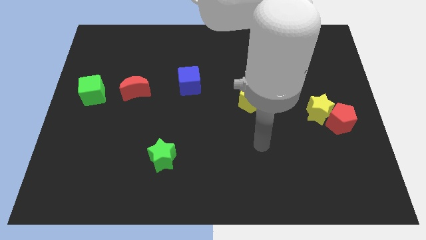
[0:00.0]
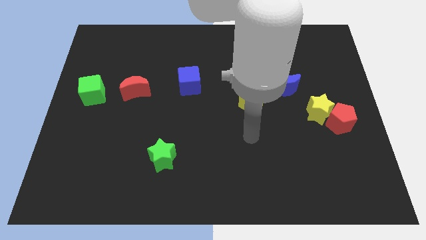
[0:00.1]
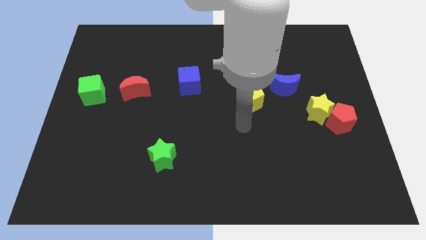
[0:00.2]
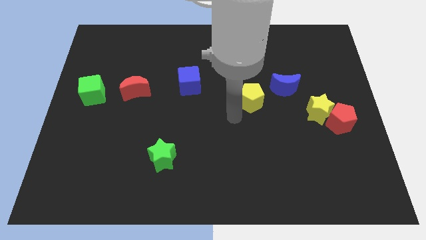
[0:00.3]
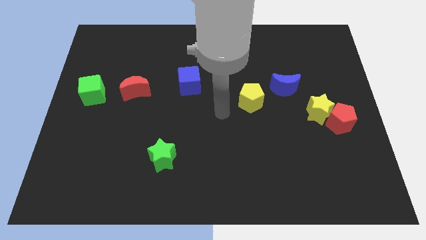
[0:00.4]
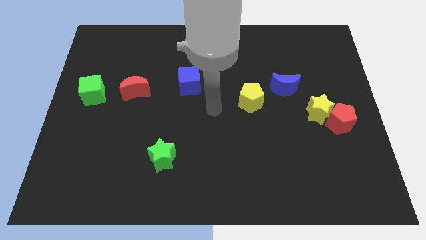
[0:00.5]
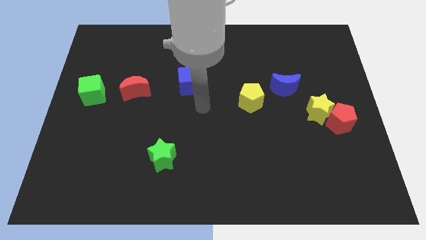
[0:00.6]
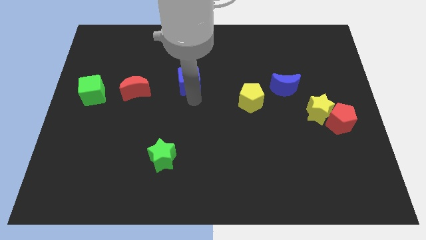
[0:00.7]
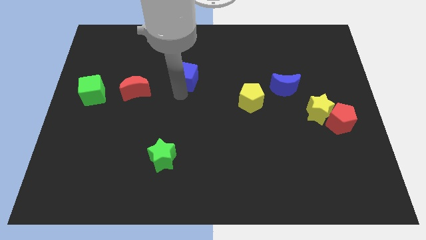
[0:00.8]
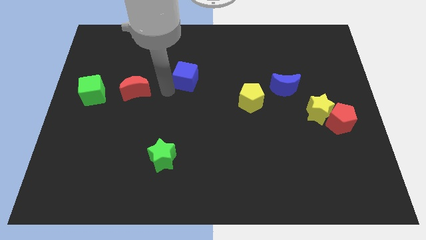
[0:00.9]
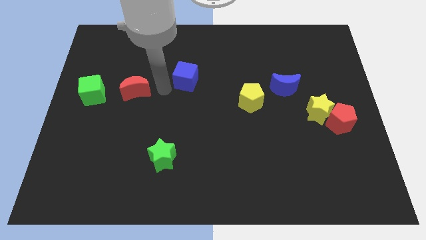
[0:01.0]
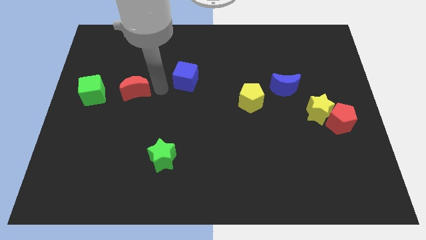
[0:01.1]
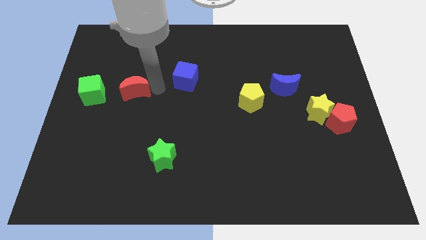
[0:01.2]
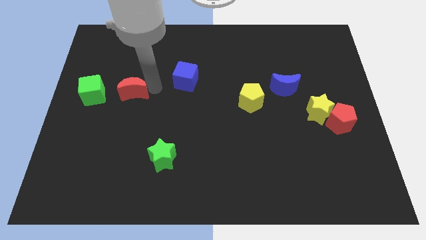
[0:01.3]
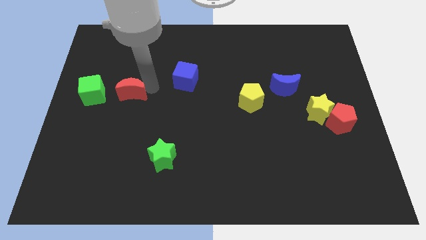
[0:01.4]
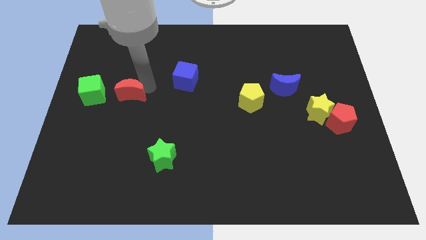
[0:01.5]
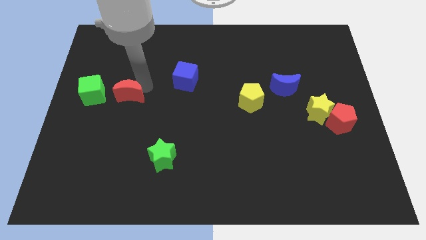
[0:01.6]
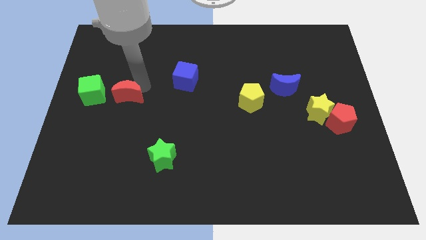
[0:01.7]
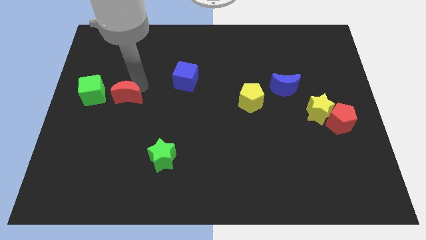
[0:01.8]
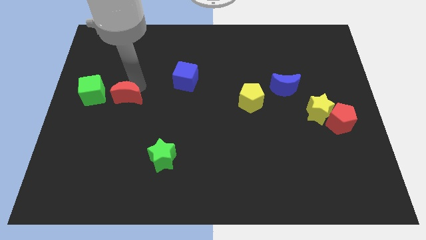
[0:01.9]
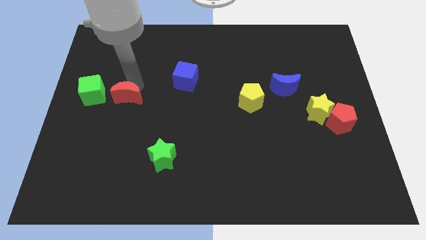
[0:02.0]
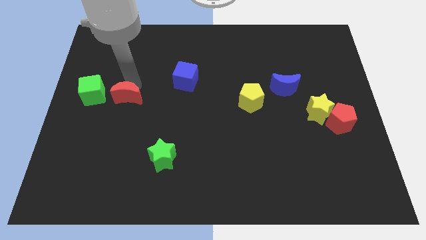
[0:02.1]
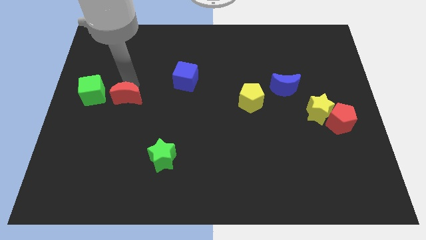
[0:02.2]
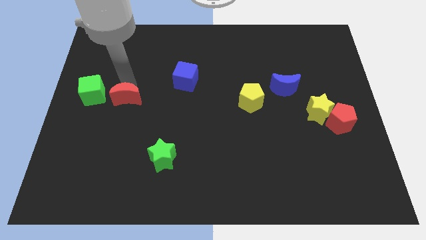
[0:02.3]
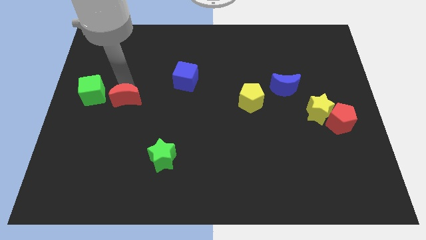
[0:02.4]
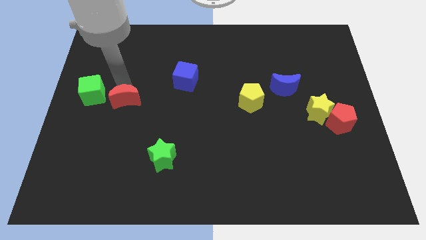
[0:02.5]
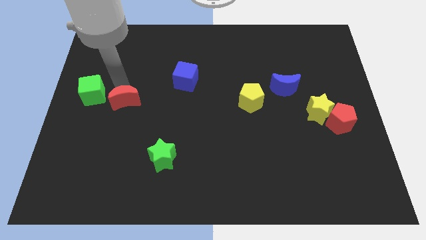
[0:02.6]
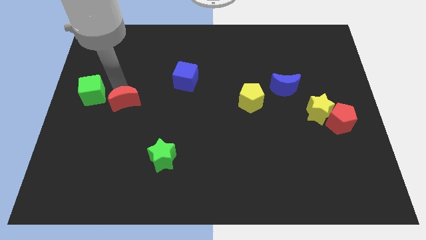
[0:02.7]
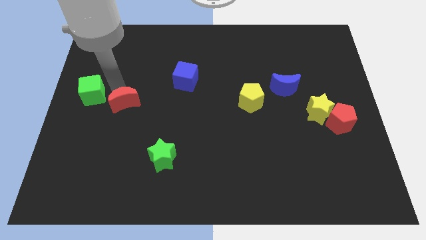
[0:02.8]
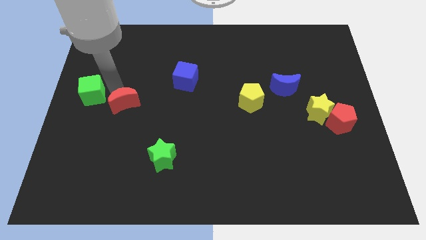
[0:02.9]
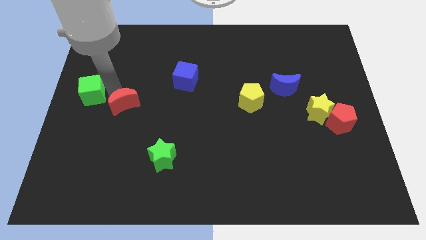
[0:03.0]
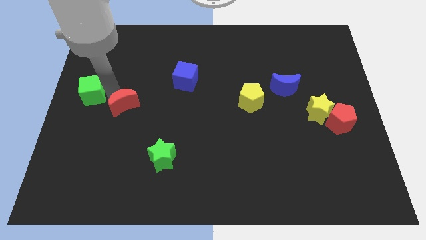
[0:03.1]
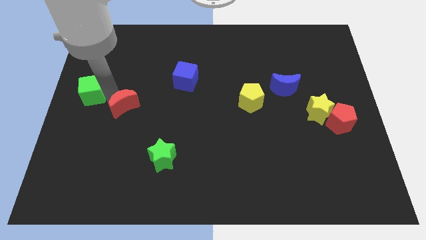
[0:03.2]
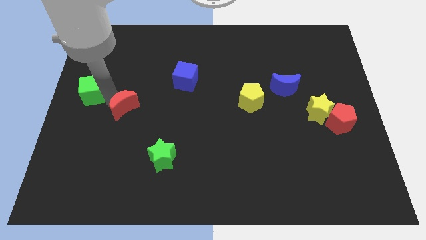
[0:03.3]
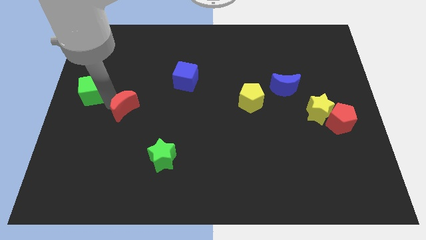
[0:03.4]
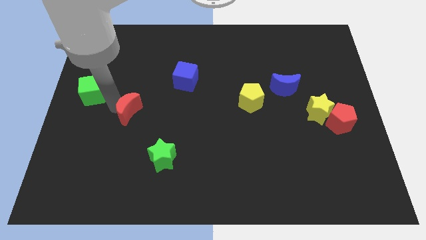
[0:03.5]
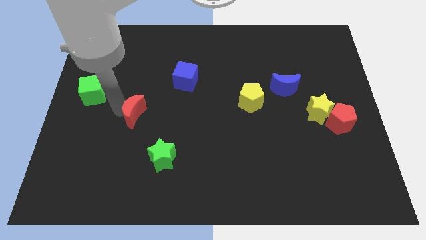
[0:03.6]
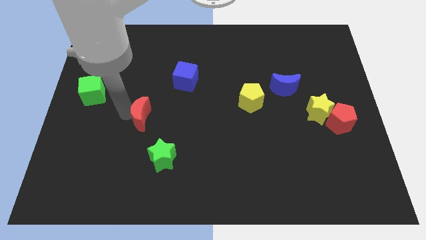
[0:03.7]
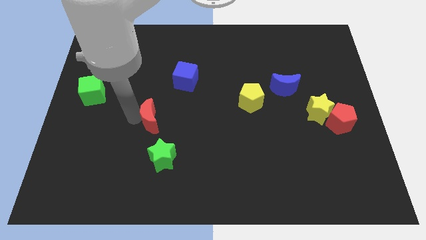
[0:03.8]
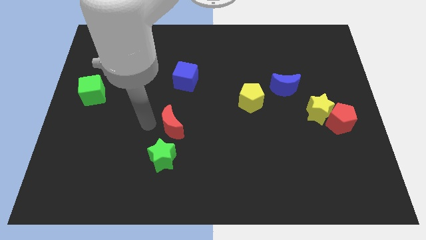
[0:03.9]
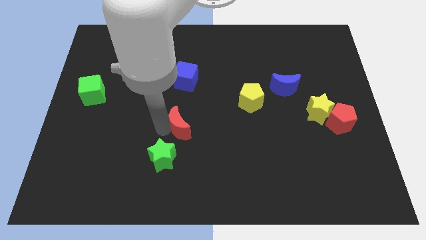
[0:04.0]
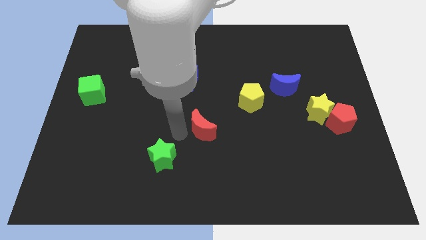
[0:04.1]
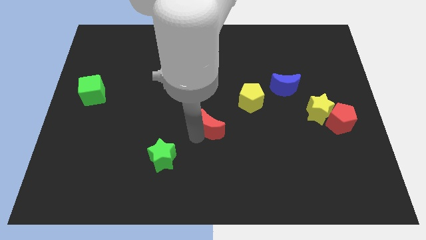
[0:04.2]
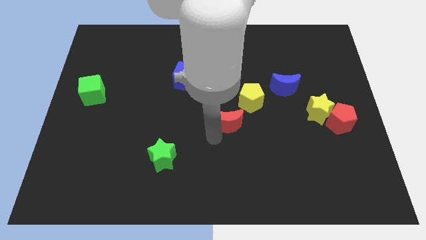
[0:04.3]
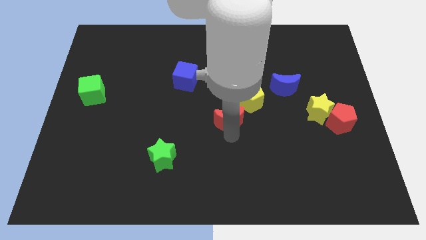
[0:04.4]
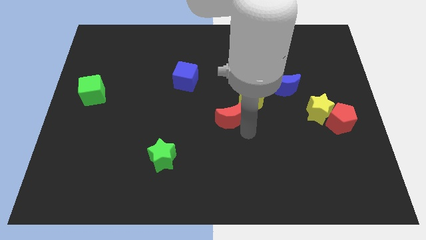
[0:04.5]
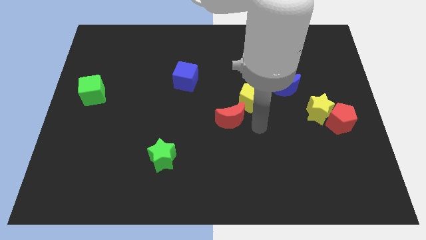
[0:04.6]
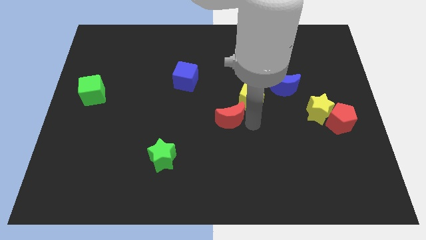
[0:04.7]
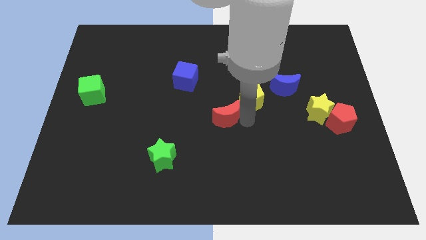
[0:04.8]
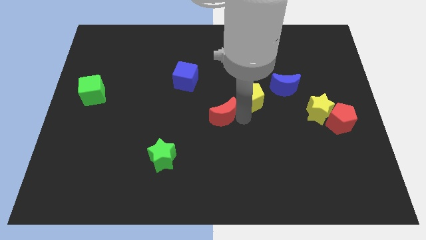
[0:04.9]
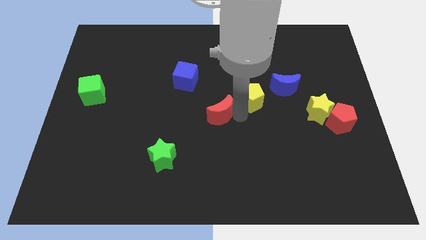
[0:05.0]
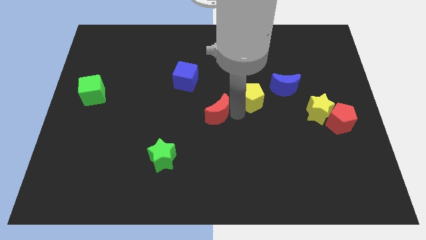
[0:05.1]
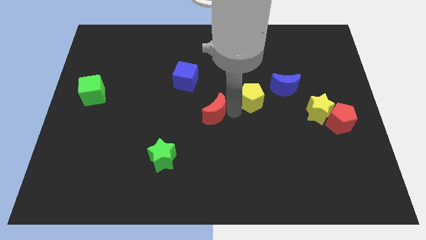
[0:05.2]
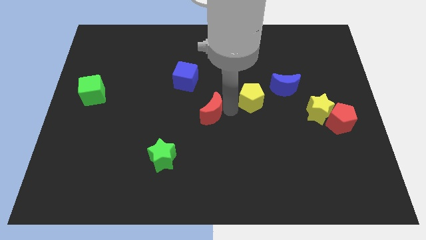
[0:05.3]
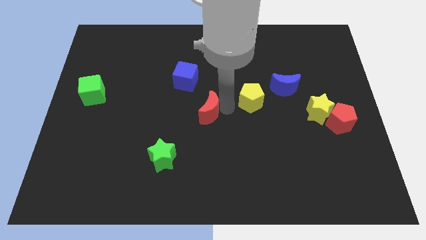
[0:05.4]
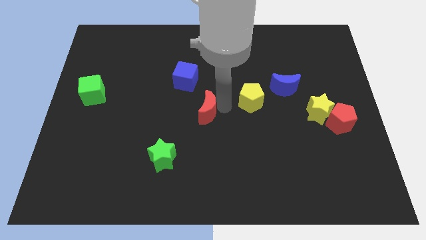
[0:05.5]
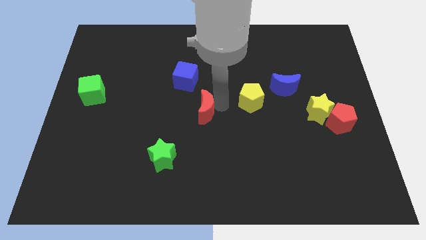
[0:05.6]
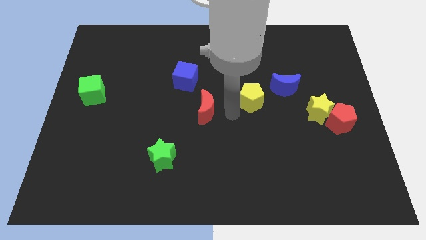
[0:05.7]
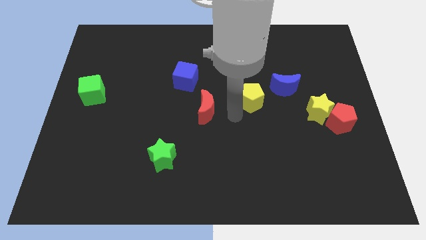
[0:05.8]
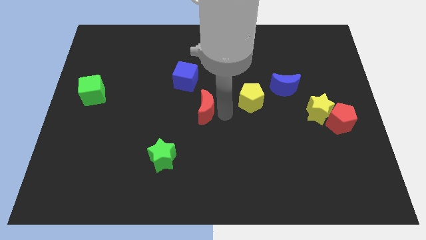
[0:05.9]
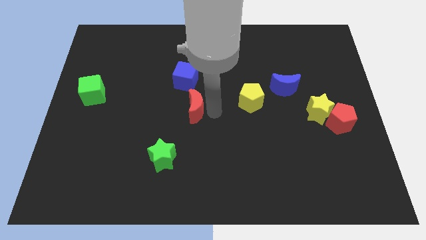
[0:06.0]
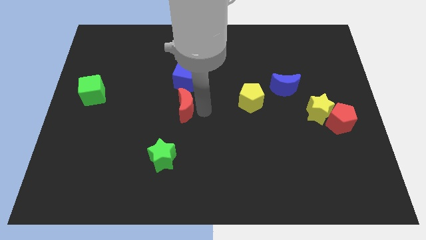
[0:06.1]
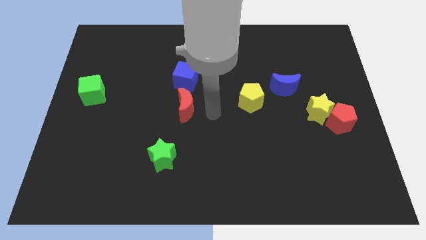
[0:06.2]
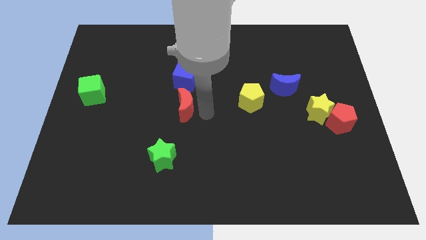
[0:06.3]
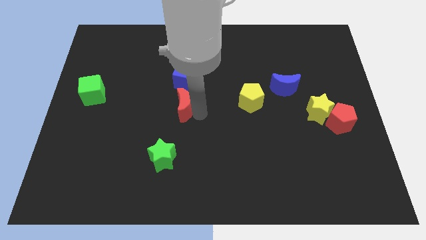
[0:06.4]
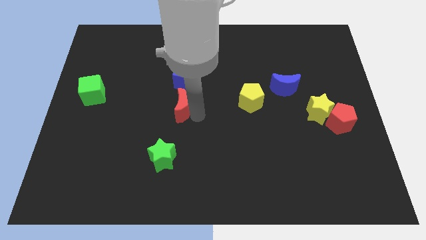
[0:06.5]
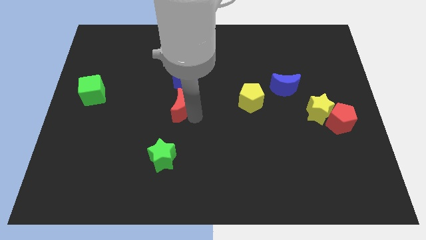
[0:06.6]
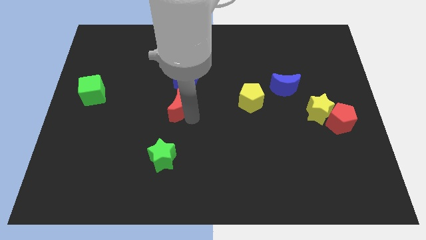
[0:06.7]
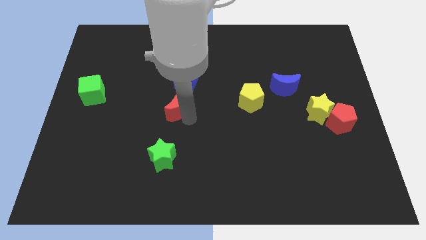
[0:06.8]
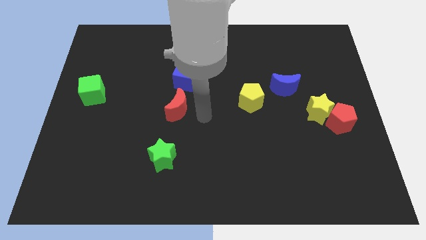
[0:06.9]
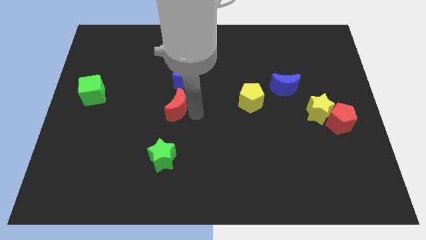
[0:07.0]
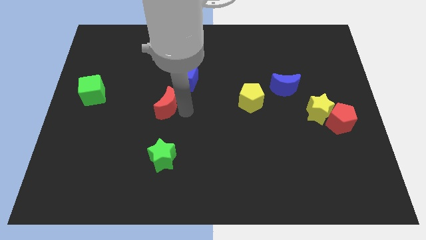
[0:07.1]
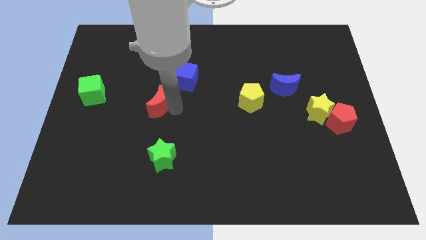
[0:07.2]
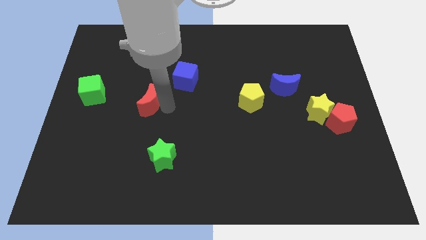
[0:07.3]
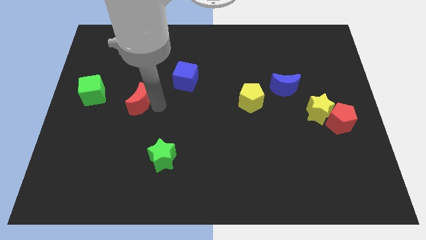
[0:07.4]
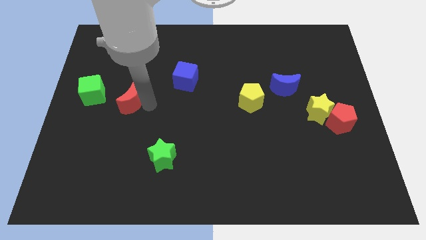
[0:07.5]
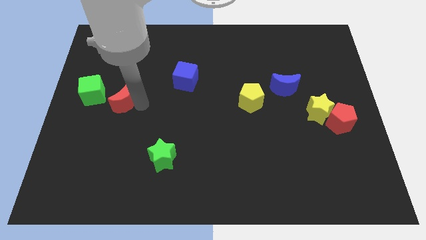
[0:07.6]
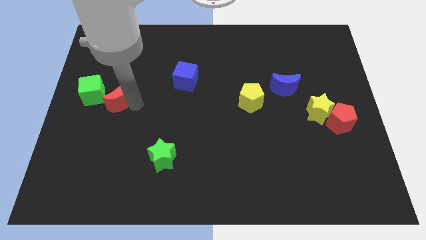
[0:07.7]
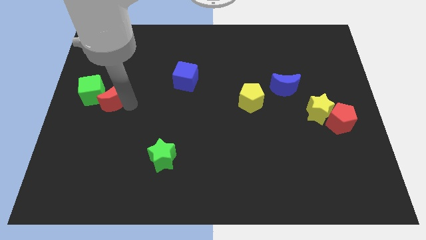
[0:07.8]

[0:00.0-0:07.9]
push the red moon close to the green cube
